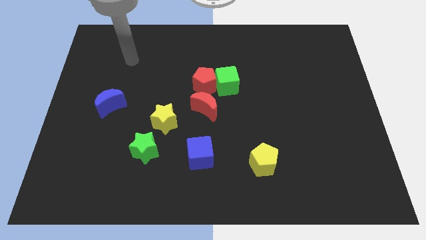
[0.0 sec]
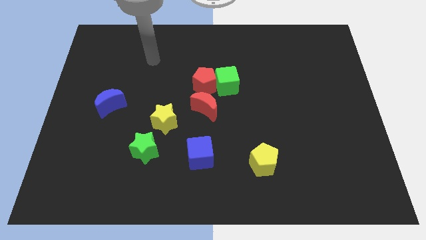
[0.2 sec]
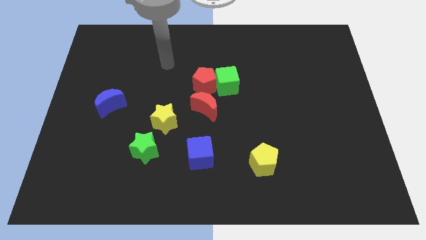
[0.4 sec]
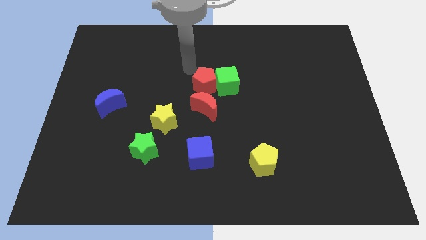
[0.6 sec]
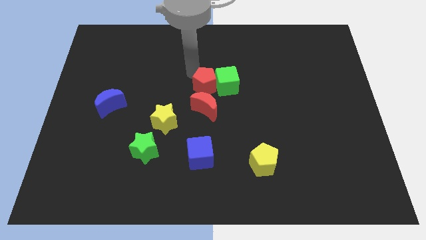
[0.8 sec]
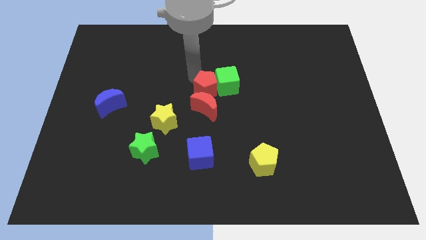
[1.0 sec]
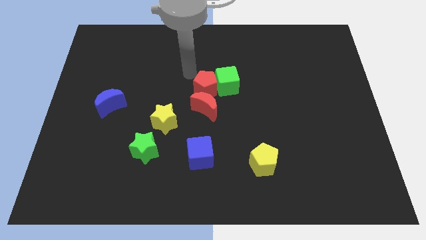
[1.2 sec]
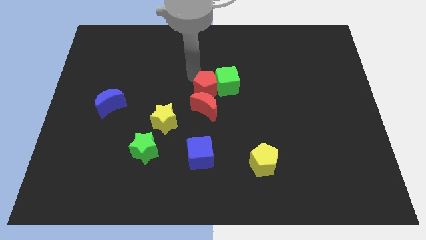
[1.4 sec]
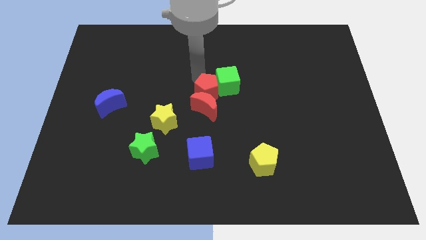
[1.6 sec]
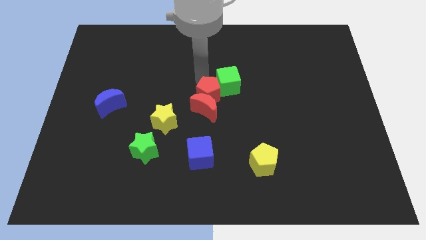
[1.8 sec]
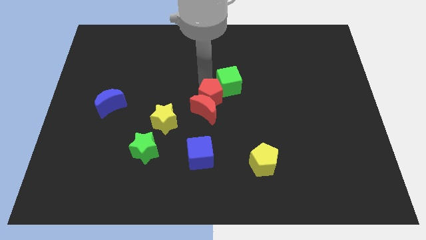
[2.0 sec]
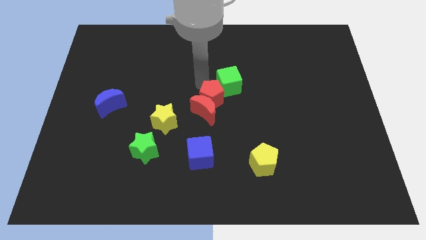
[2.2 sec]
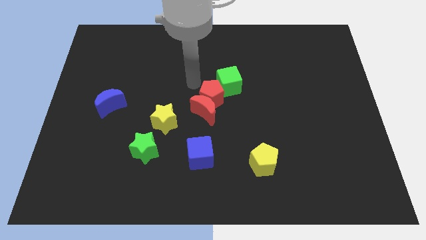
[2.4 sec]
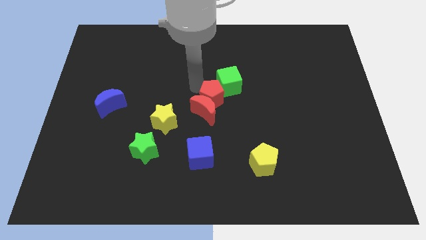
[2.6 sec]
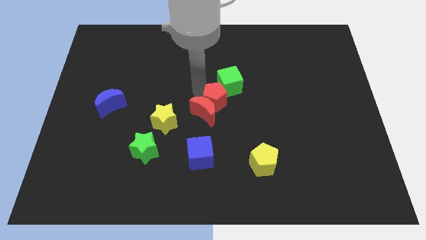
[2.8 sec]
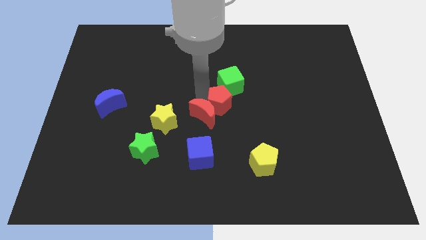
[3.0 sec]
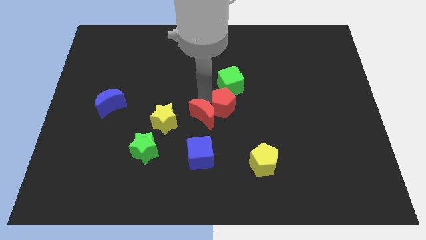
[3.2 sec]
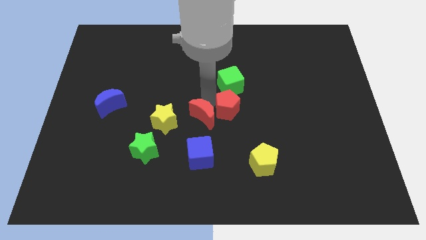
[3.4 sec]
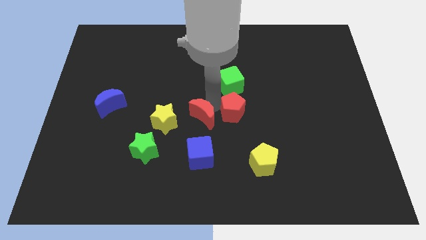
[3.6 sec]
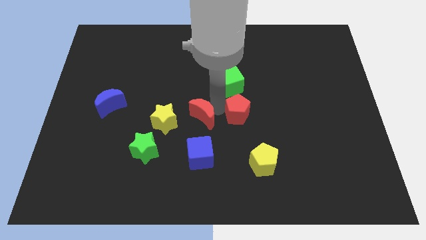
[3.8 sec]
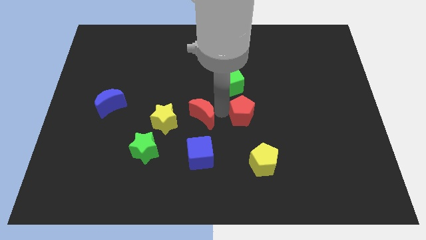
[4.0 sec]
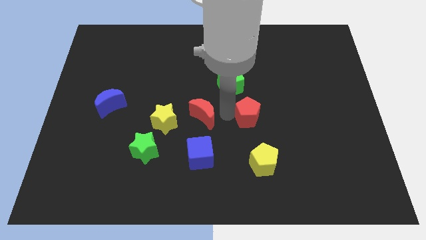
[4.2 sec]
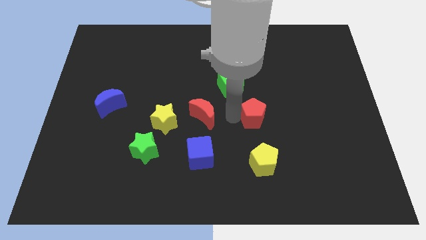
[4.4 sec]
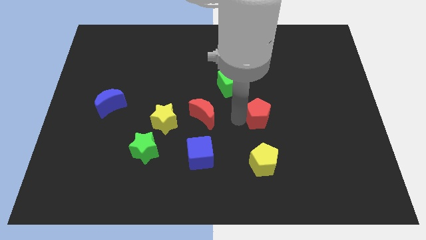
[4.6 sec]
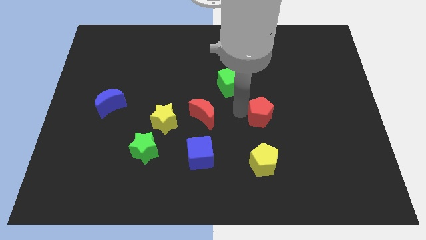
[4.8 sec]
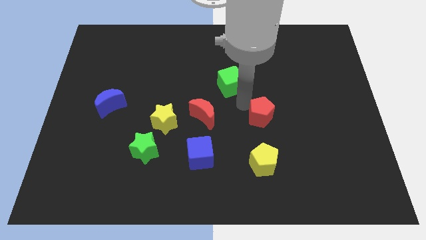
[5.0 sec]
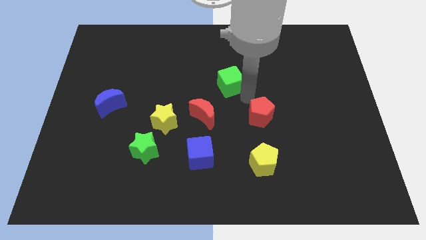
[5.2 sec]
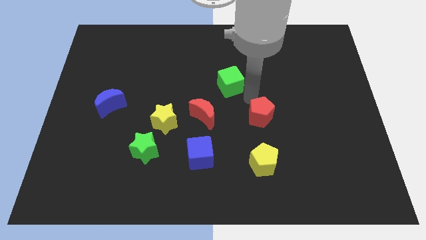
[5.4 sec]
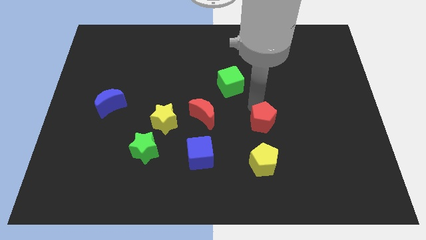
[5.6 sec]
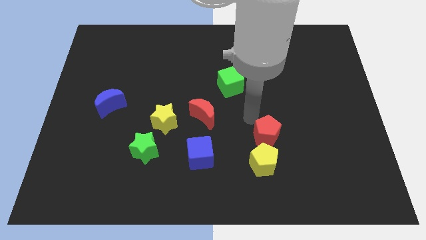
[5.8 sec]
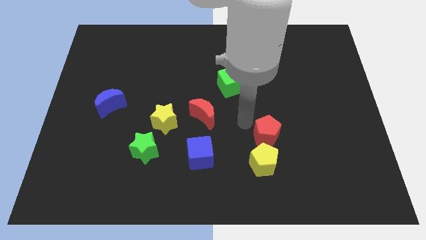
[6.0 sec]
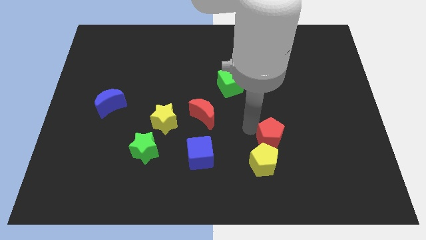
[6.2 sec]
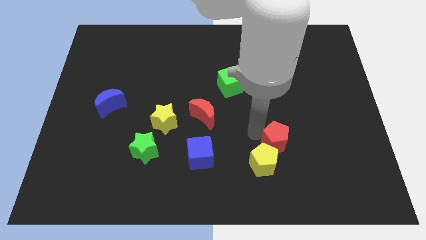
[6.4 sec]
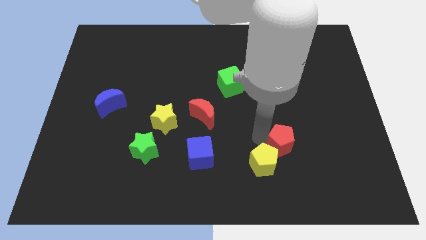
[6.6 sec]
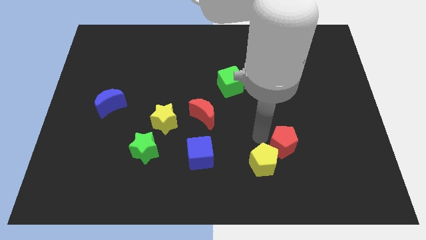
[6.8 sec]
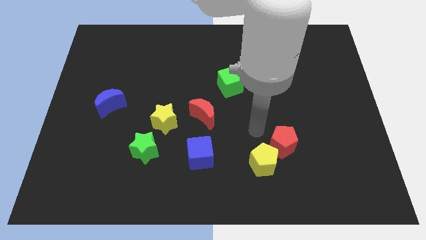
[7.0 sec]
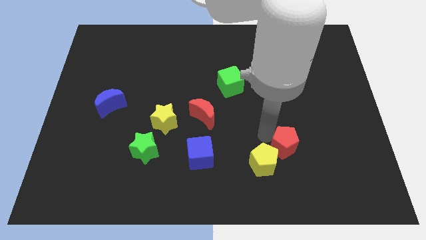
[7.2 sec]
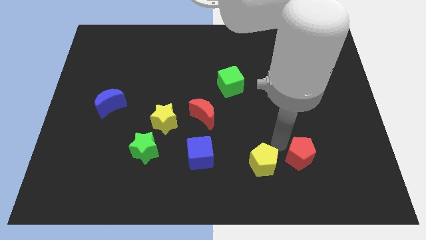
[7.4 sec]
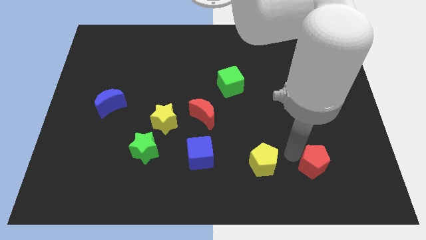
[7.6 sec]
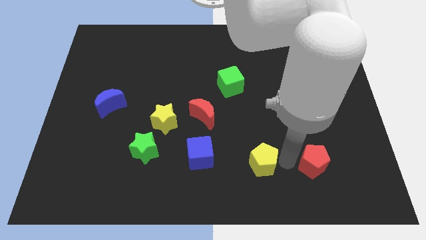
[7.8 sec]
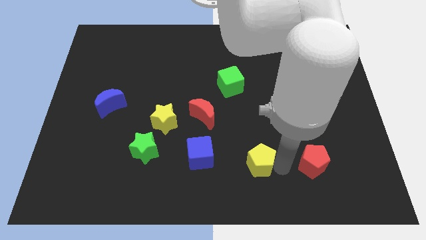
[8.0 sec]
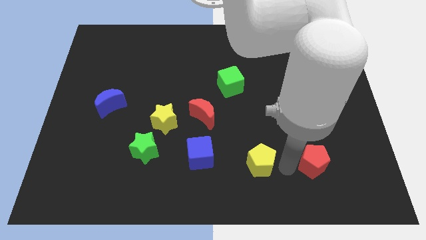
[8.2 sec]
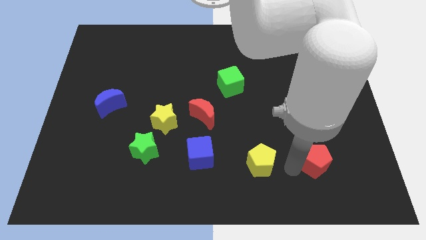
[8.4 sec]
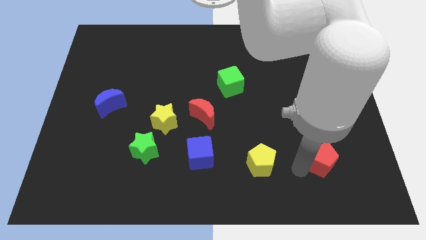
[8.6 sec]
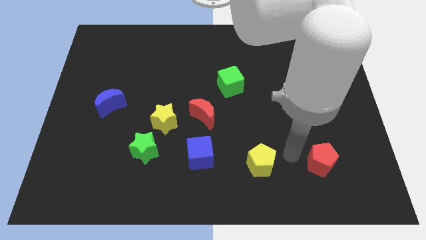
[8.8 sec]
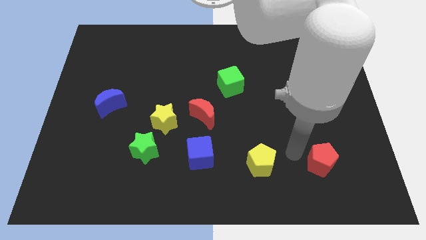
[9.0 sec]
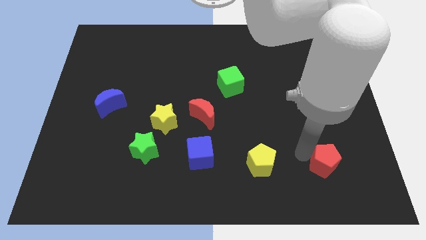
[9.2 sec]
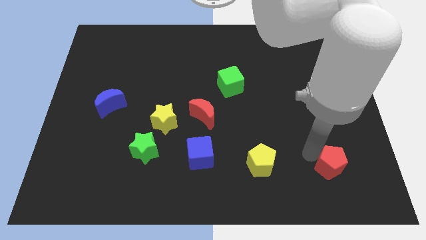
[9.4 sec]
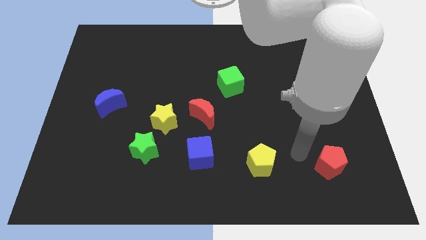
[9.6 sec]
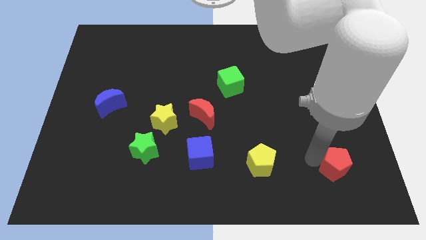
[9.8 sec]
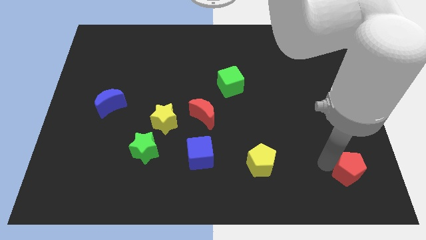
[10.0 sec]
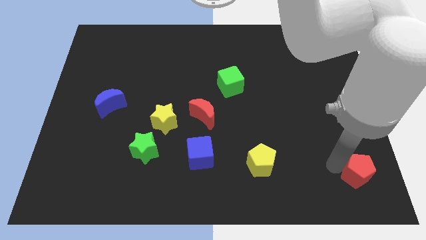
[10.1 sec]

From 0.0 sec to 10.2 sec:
put the red pentagon to the bottom right corner
